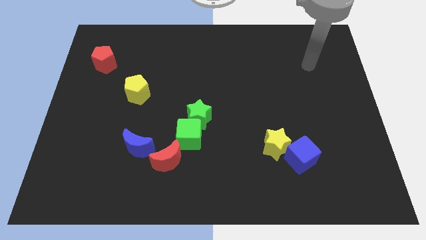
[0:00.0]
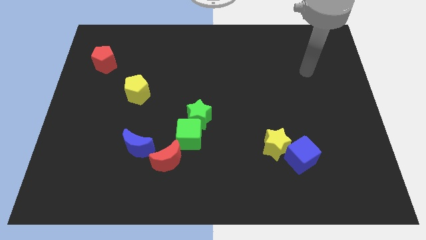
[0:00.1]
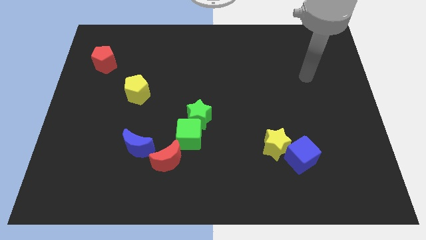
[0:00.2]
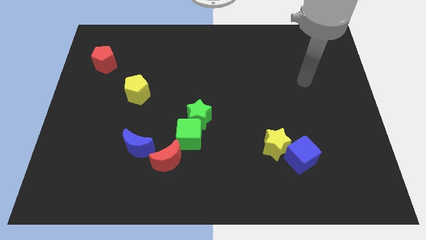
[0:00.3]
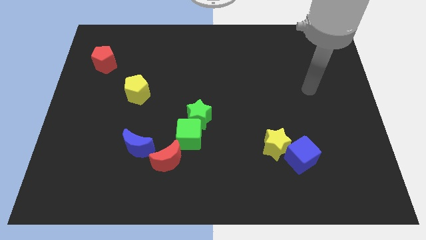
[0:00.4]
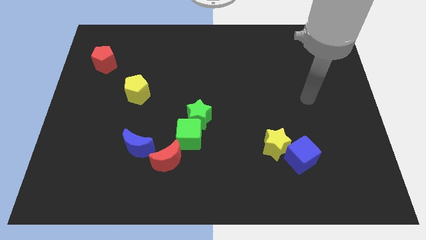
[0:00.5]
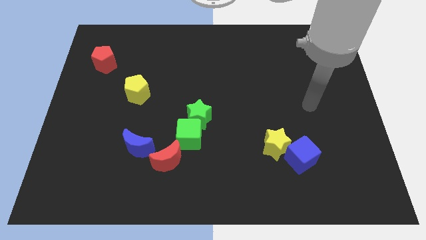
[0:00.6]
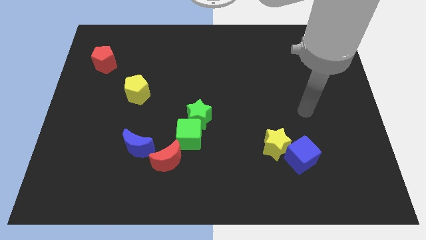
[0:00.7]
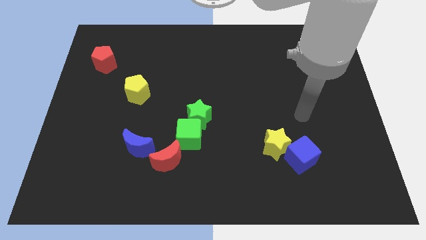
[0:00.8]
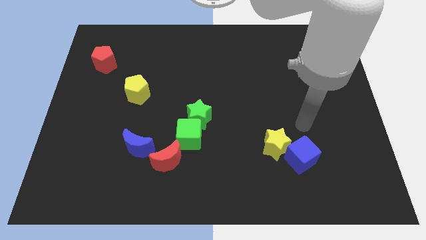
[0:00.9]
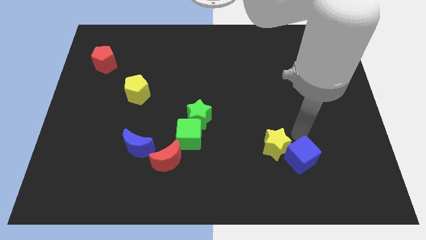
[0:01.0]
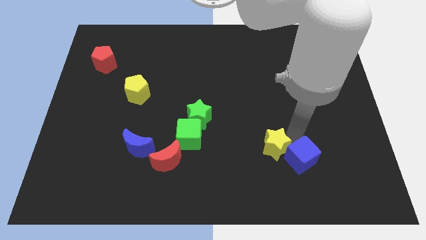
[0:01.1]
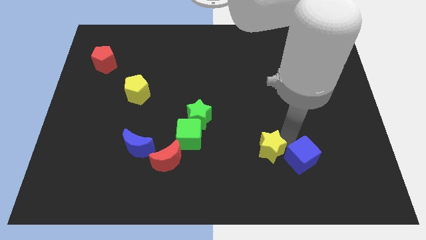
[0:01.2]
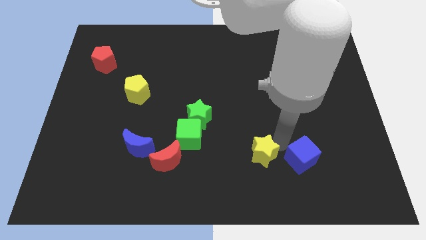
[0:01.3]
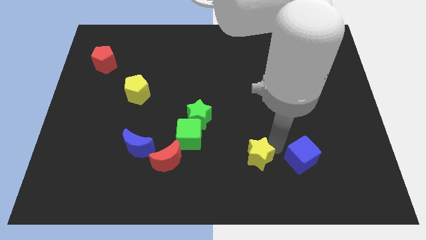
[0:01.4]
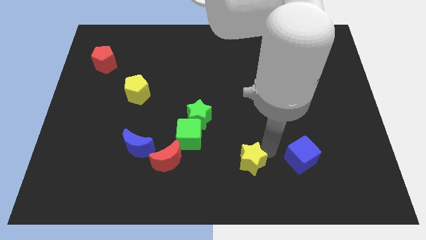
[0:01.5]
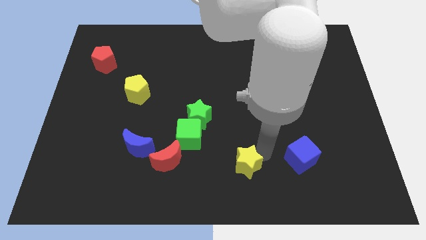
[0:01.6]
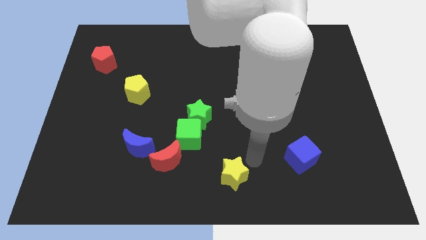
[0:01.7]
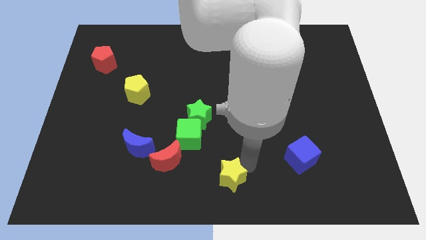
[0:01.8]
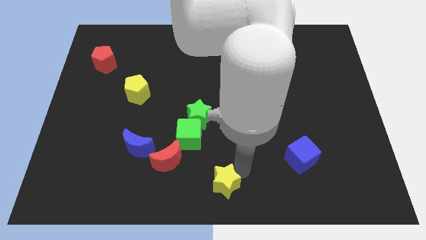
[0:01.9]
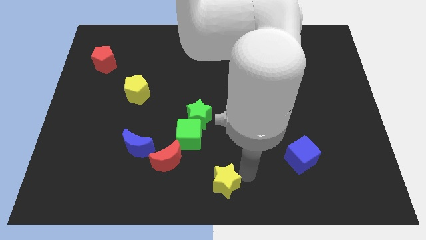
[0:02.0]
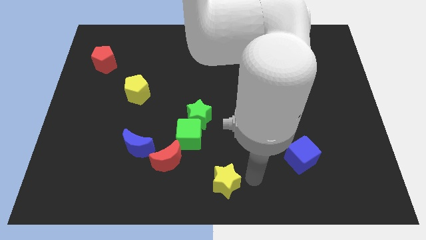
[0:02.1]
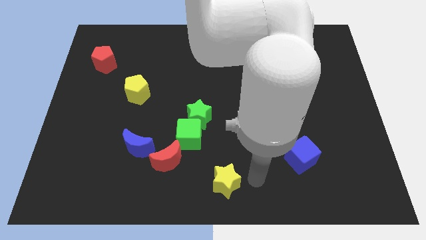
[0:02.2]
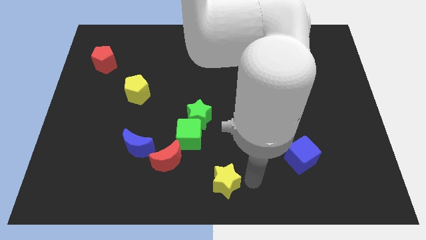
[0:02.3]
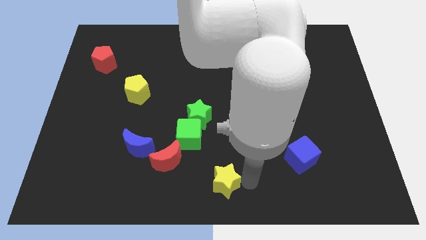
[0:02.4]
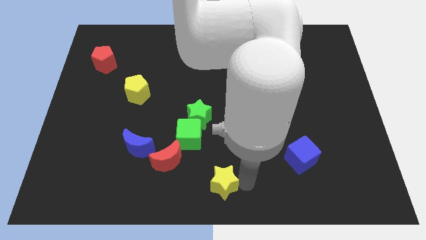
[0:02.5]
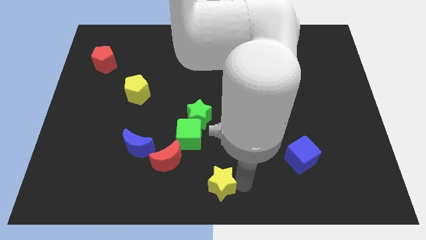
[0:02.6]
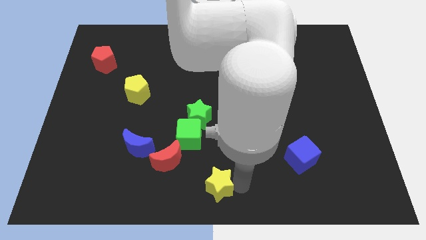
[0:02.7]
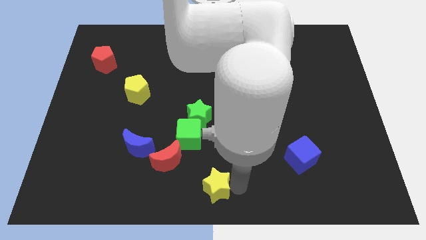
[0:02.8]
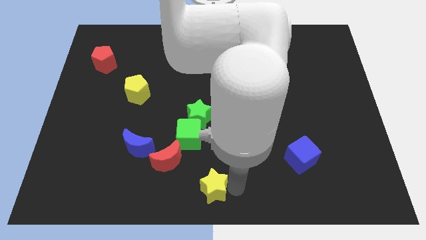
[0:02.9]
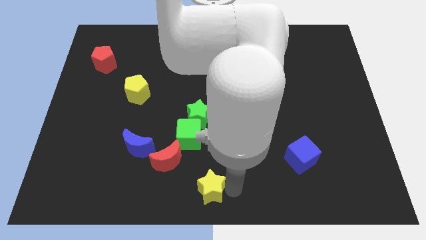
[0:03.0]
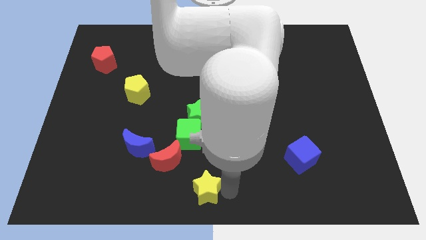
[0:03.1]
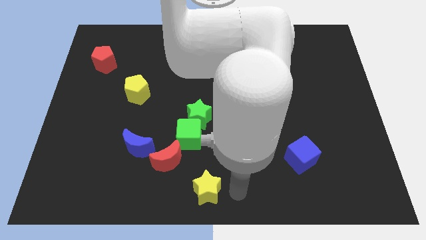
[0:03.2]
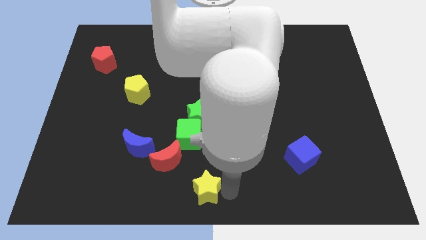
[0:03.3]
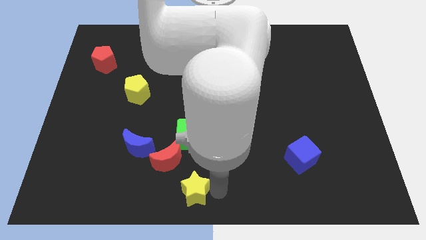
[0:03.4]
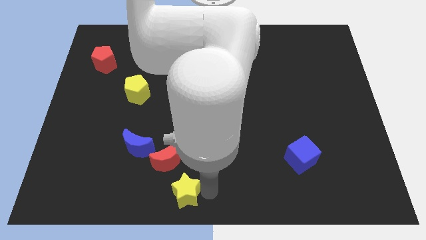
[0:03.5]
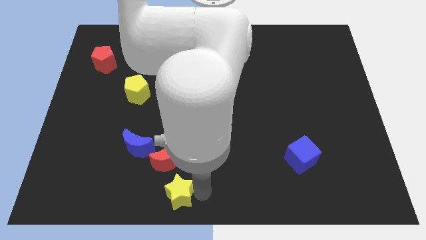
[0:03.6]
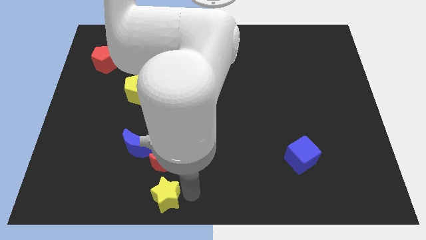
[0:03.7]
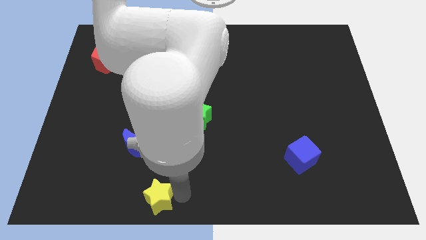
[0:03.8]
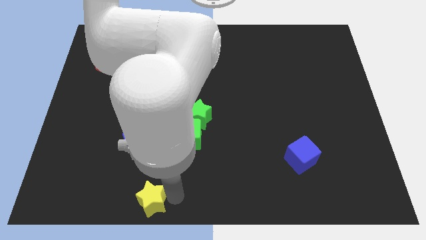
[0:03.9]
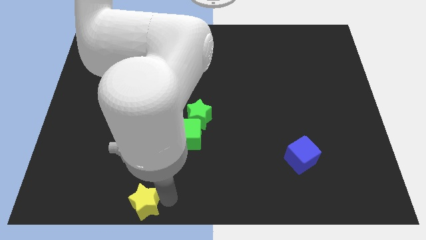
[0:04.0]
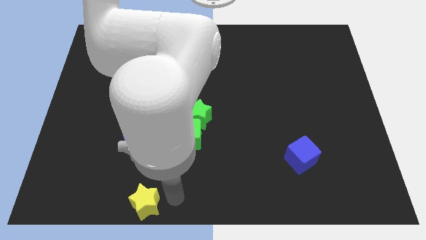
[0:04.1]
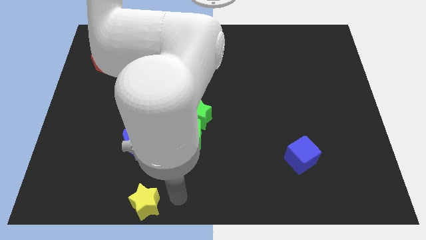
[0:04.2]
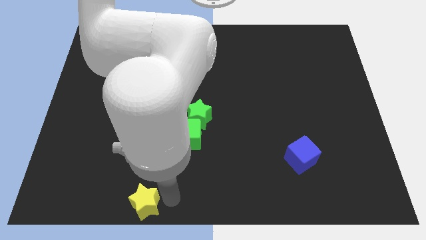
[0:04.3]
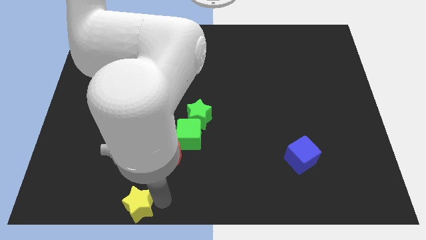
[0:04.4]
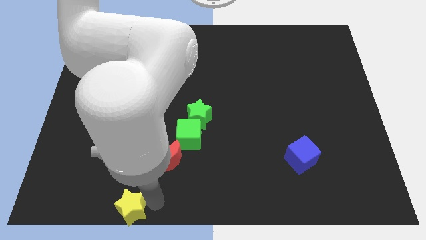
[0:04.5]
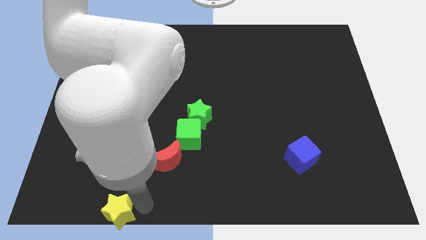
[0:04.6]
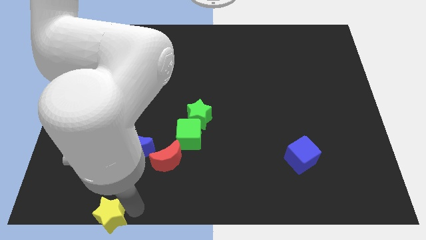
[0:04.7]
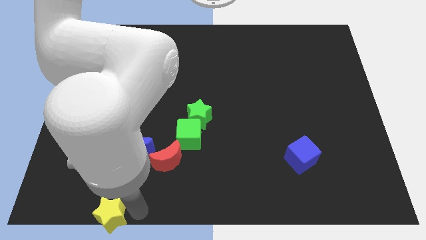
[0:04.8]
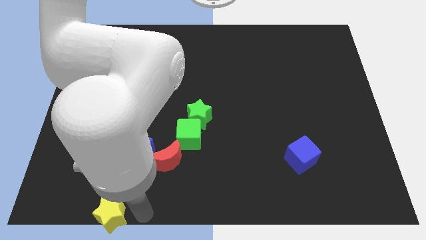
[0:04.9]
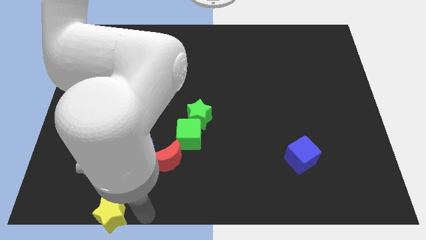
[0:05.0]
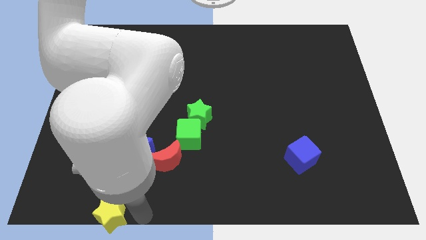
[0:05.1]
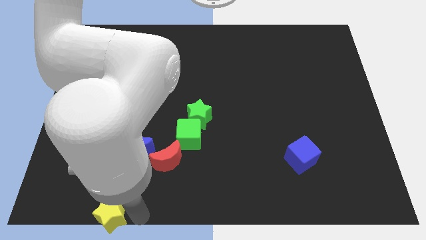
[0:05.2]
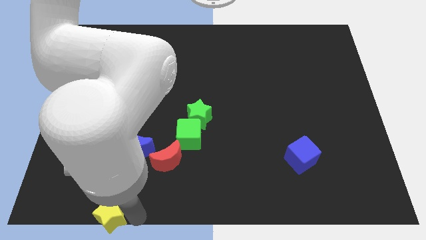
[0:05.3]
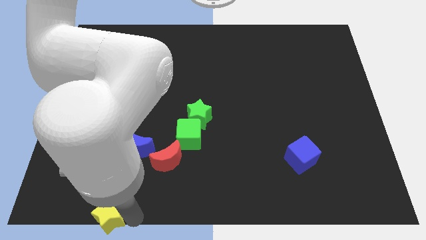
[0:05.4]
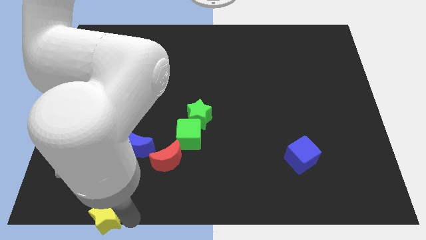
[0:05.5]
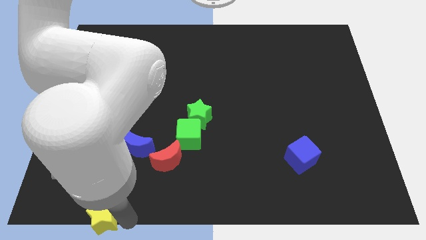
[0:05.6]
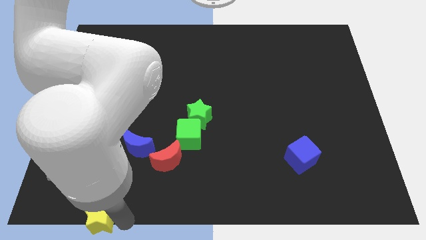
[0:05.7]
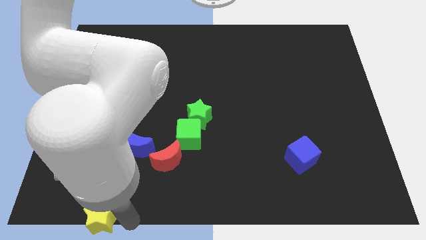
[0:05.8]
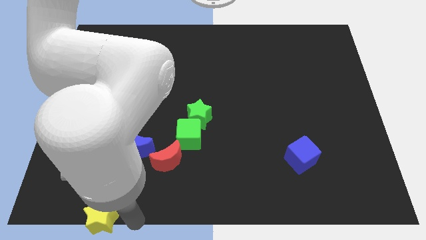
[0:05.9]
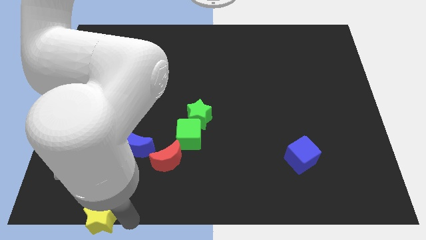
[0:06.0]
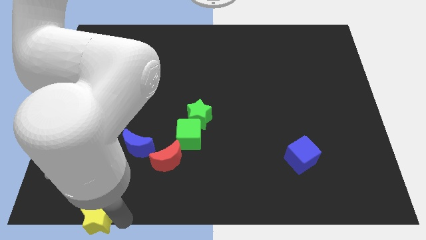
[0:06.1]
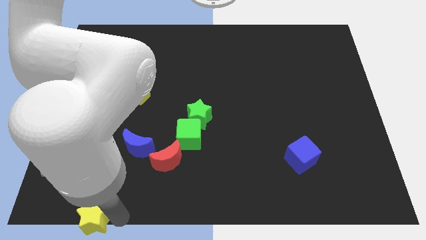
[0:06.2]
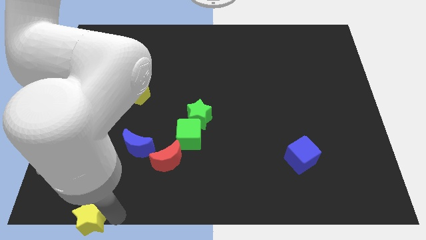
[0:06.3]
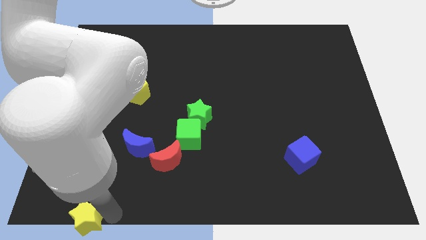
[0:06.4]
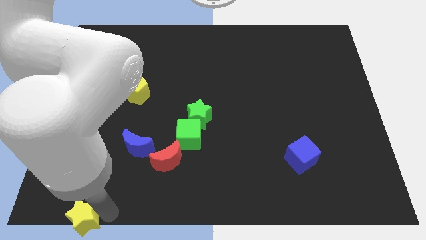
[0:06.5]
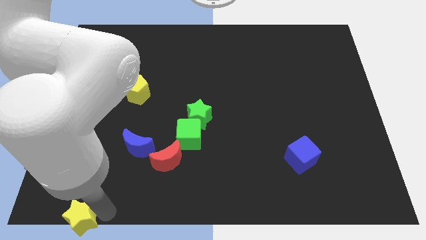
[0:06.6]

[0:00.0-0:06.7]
put the yellow star to the lower left corner
